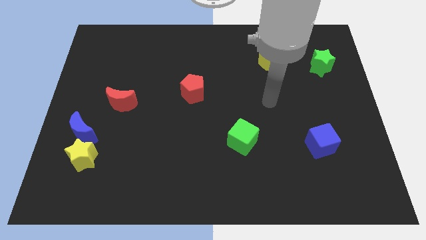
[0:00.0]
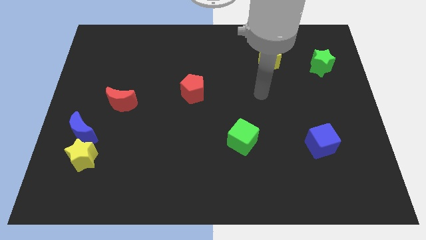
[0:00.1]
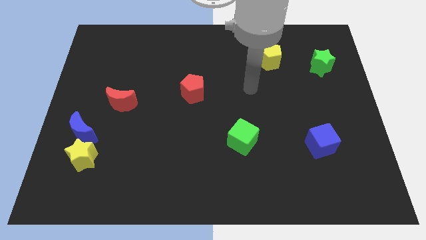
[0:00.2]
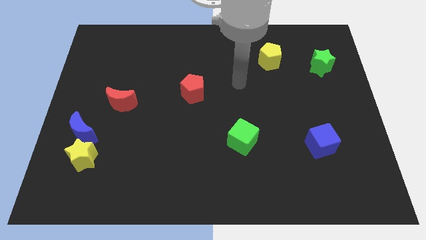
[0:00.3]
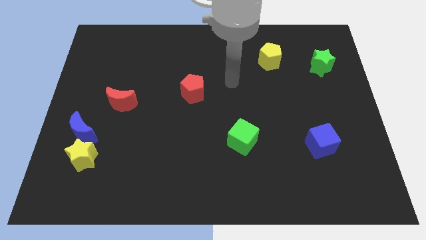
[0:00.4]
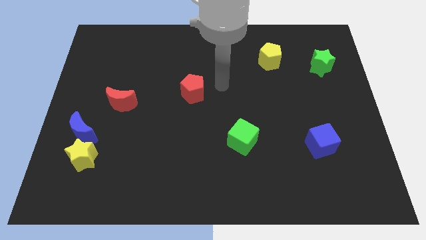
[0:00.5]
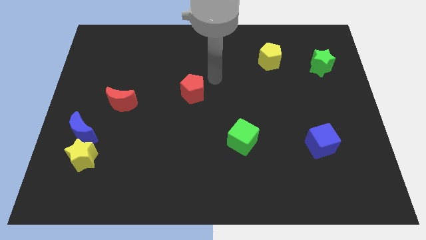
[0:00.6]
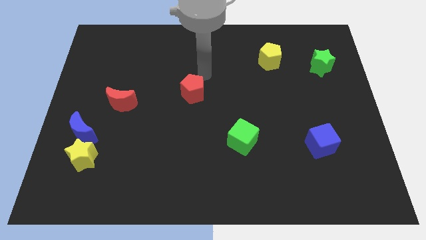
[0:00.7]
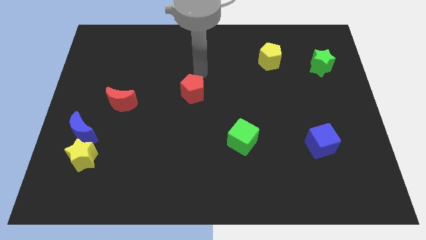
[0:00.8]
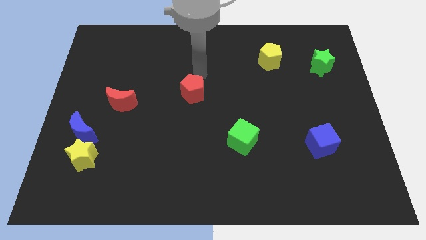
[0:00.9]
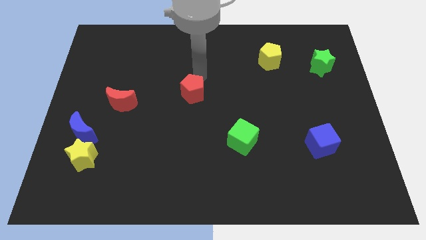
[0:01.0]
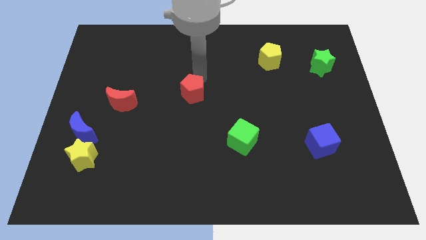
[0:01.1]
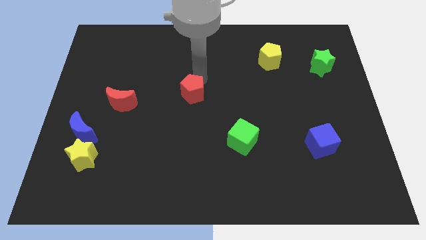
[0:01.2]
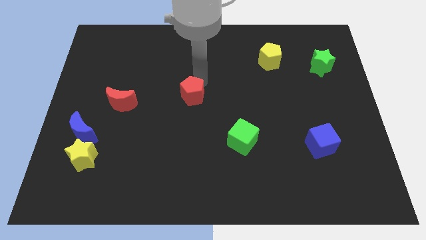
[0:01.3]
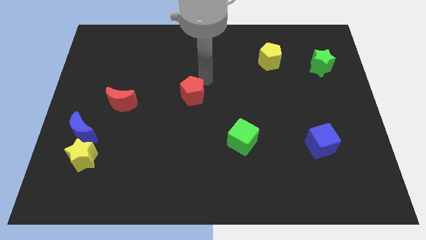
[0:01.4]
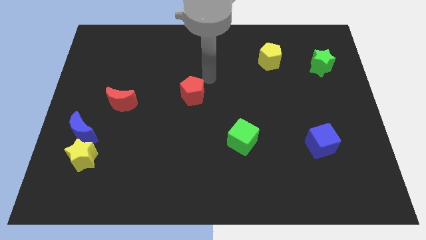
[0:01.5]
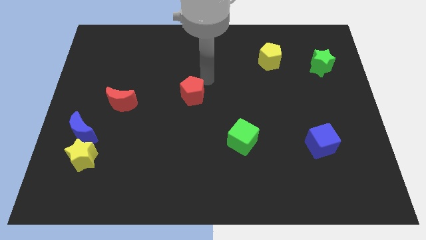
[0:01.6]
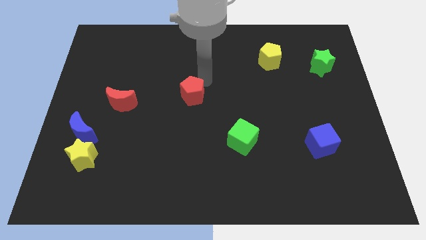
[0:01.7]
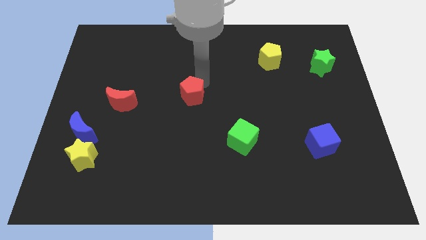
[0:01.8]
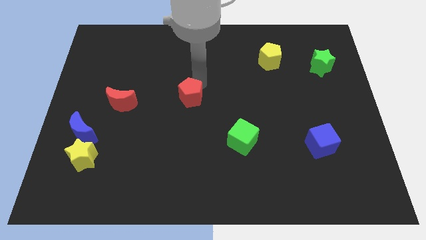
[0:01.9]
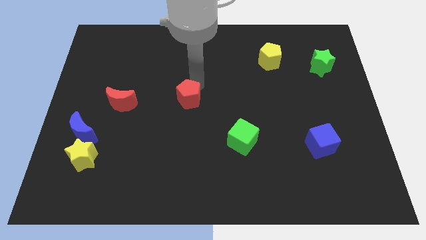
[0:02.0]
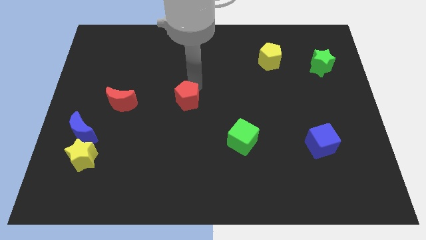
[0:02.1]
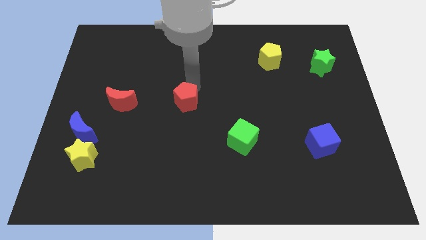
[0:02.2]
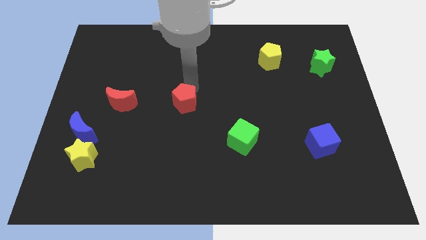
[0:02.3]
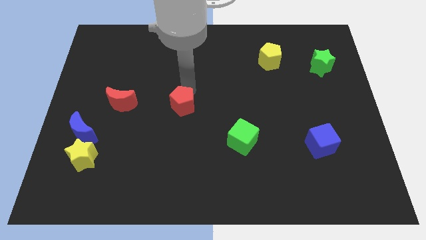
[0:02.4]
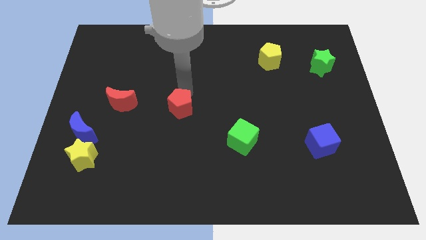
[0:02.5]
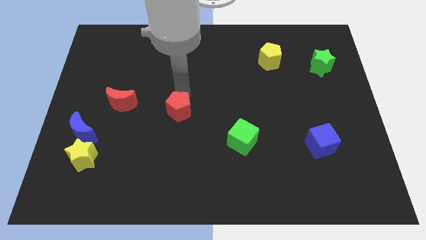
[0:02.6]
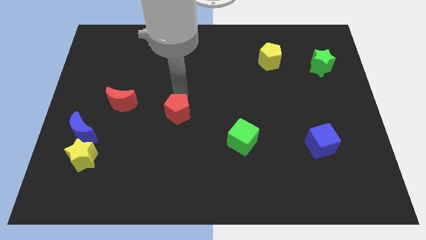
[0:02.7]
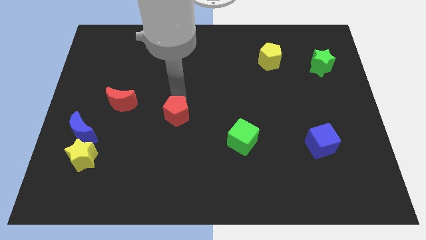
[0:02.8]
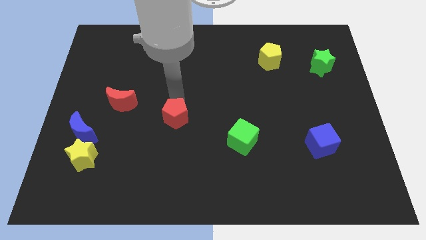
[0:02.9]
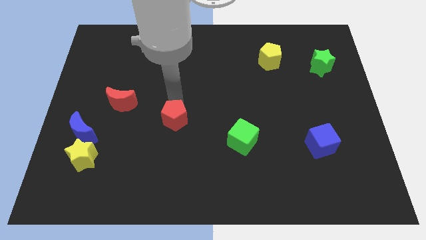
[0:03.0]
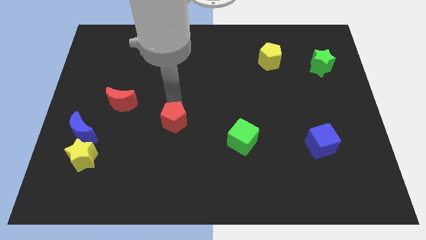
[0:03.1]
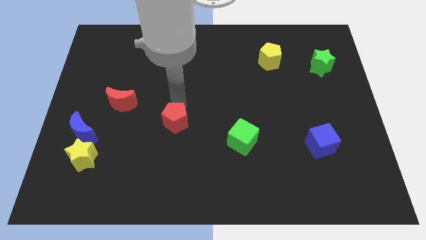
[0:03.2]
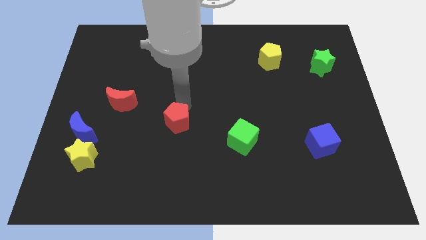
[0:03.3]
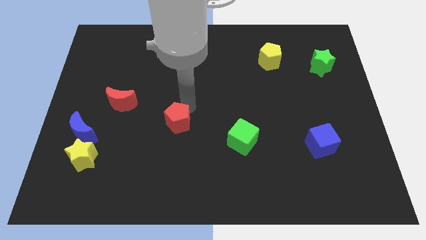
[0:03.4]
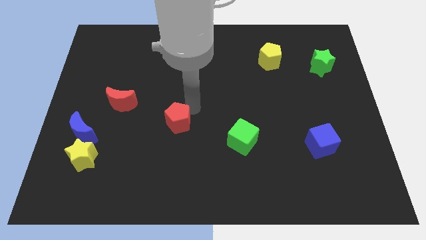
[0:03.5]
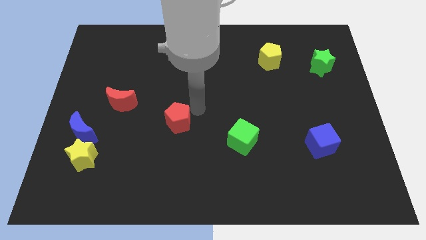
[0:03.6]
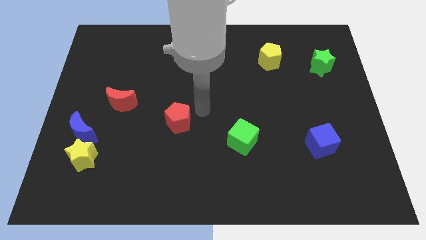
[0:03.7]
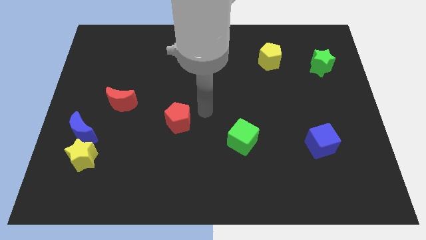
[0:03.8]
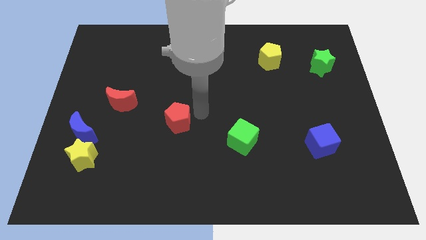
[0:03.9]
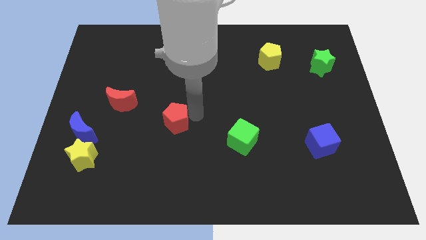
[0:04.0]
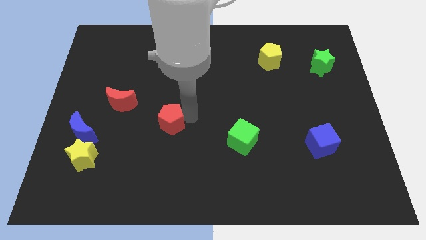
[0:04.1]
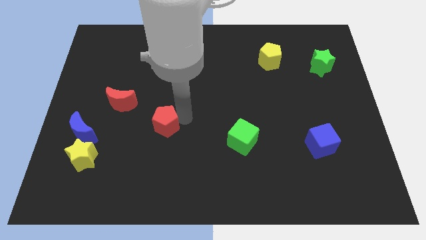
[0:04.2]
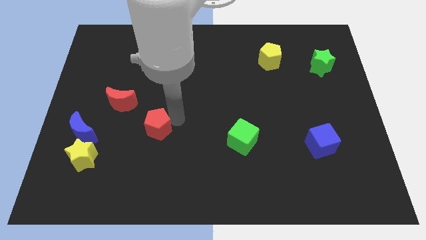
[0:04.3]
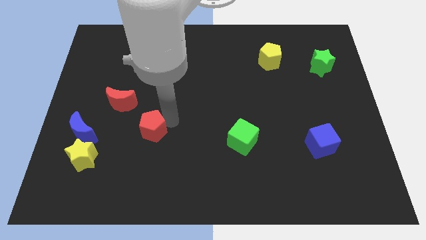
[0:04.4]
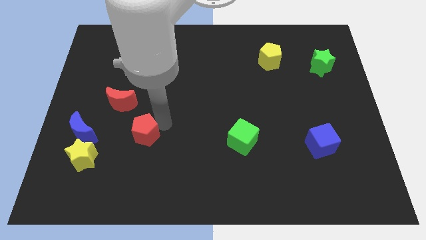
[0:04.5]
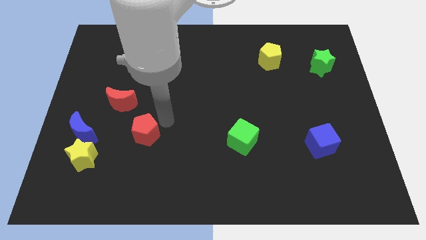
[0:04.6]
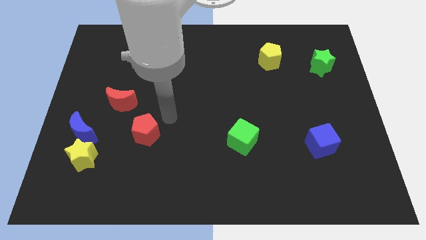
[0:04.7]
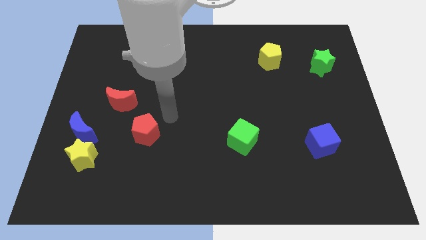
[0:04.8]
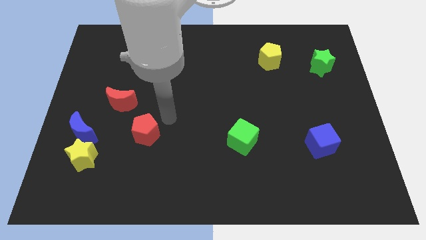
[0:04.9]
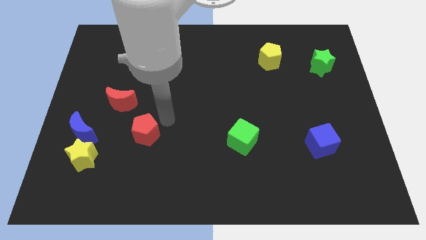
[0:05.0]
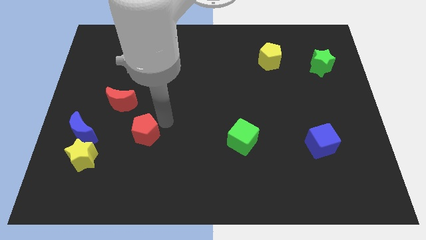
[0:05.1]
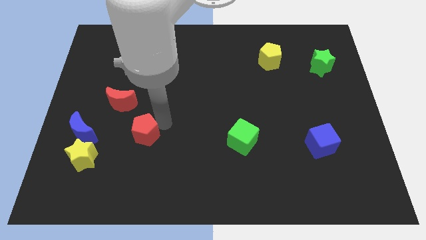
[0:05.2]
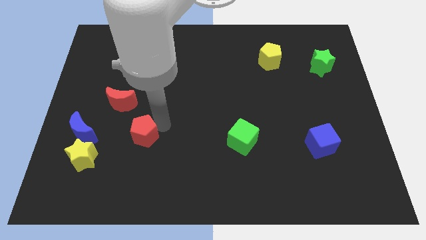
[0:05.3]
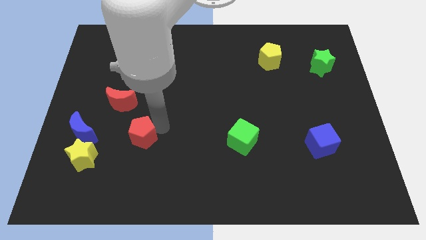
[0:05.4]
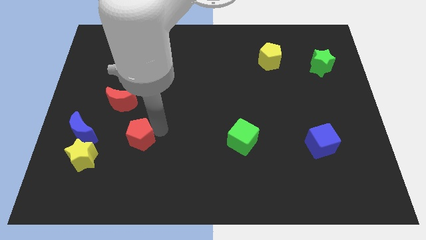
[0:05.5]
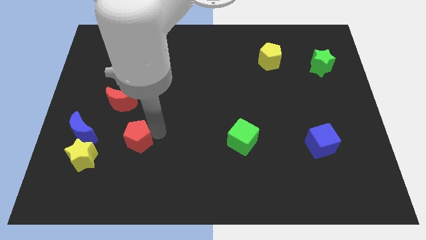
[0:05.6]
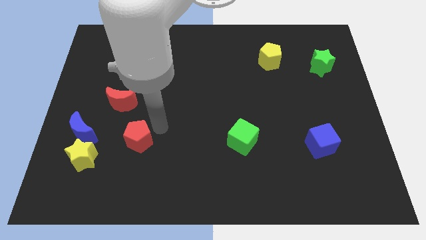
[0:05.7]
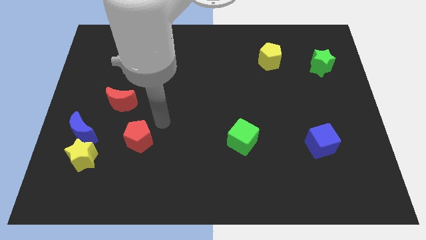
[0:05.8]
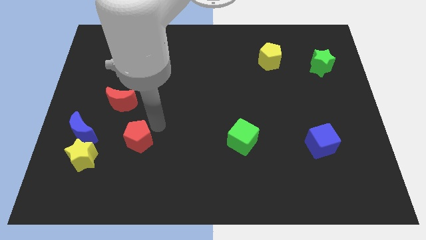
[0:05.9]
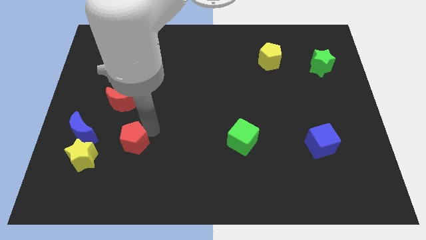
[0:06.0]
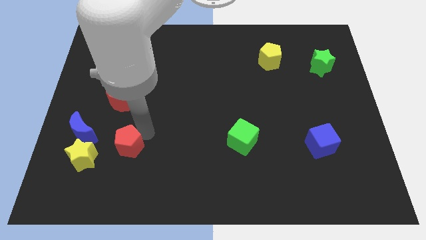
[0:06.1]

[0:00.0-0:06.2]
slide the red pentagon downwards and left

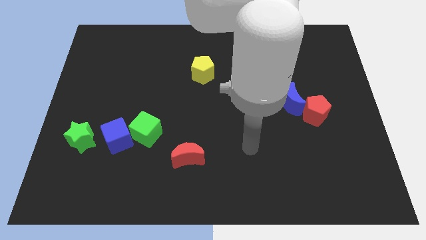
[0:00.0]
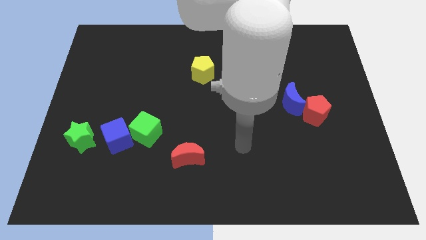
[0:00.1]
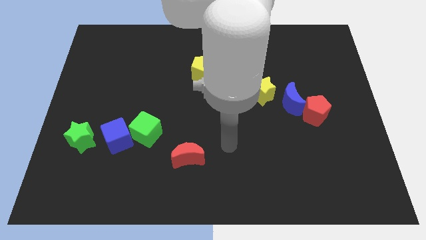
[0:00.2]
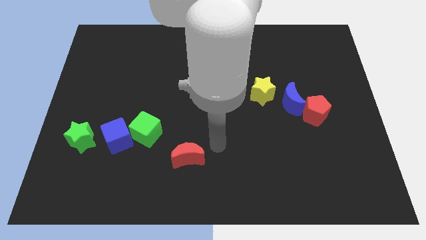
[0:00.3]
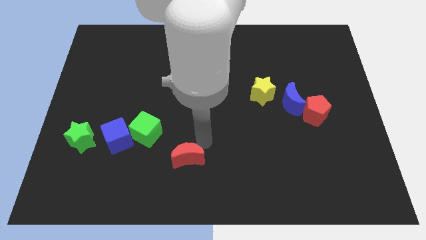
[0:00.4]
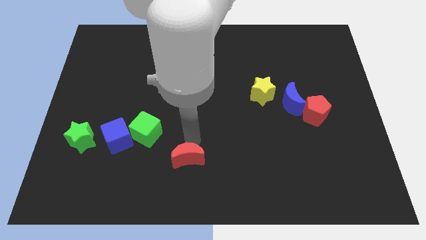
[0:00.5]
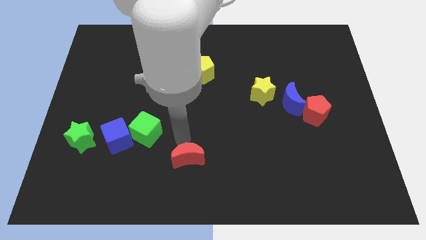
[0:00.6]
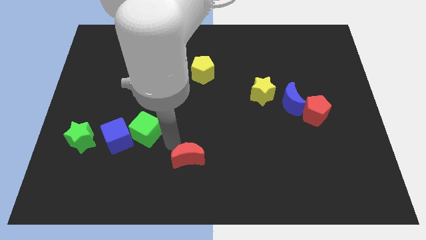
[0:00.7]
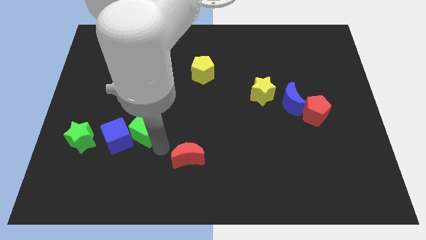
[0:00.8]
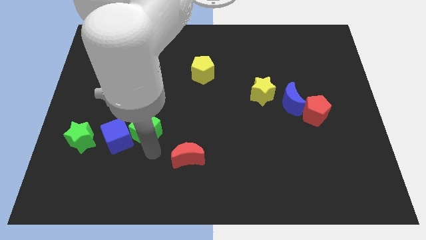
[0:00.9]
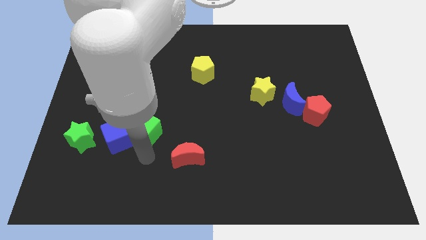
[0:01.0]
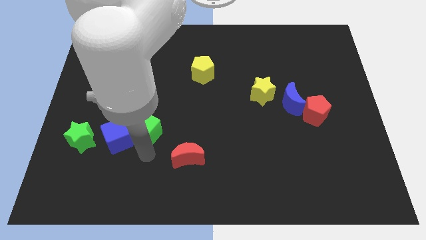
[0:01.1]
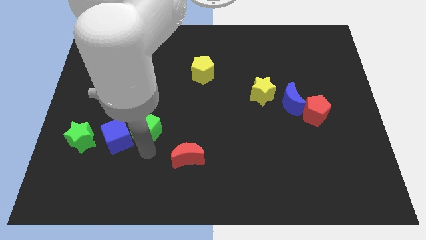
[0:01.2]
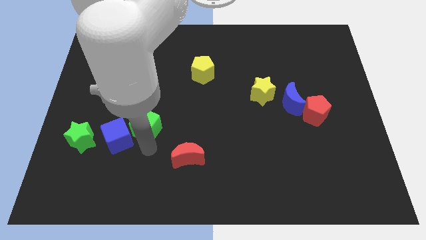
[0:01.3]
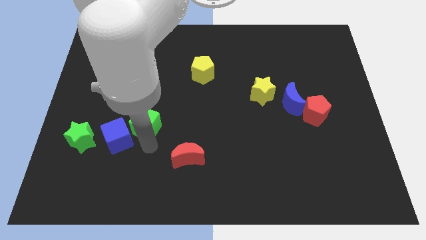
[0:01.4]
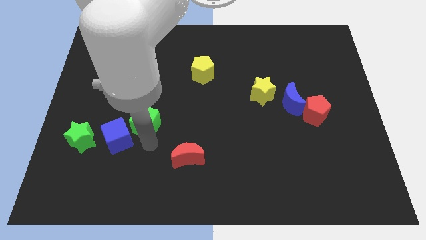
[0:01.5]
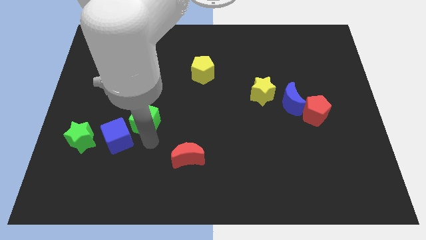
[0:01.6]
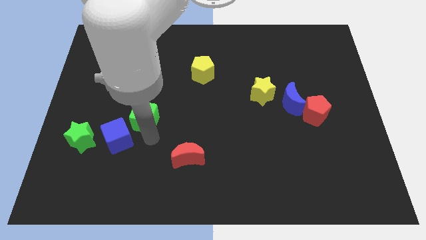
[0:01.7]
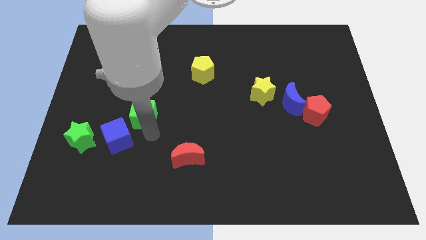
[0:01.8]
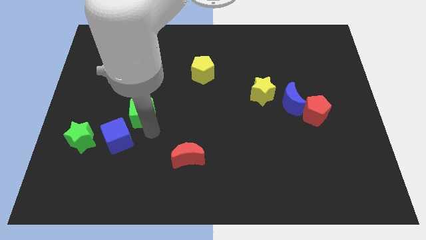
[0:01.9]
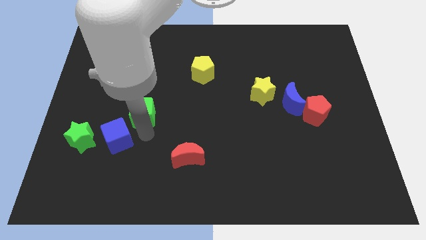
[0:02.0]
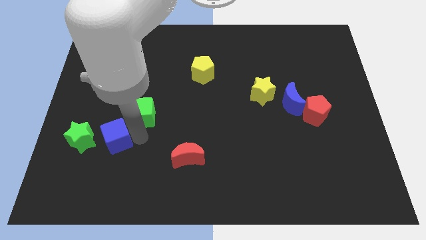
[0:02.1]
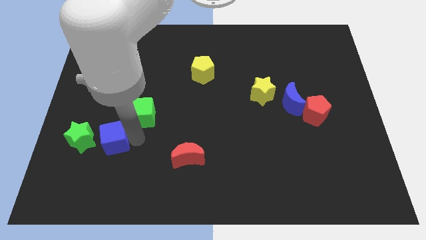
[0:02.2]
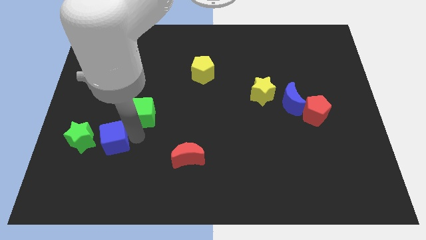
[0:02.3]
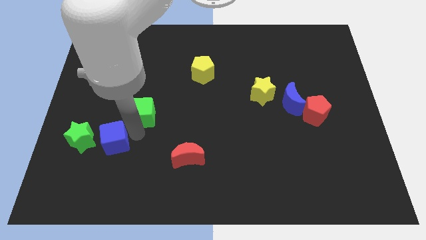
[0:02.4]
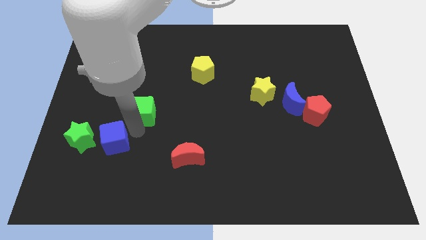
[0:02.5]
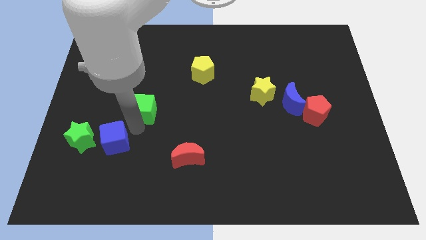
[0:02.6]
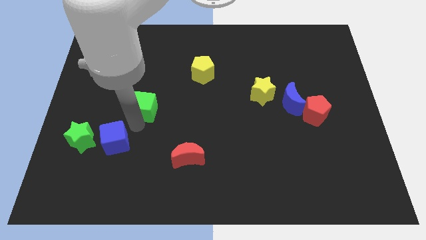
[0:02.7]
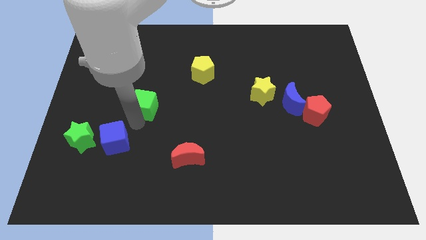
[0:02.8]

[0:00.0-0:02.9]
slide the green cube a little up
